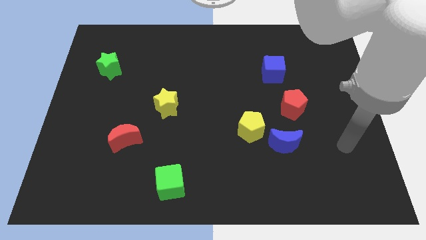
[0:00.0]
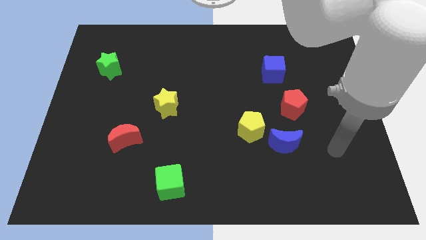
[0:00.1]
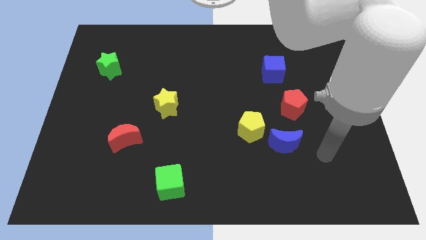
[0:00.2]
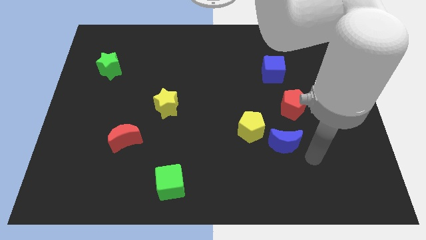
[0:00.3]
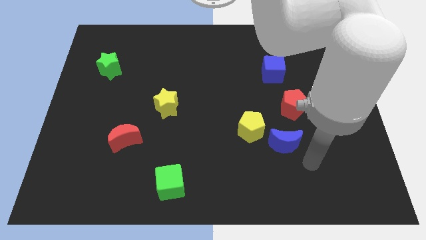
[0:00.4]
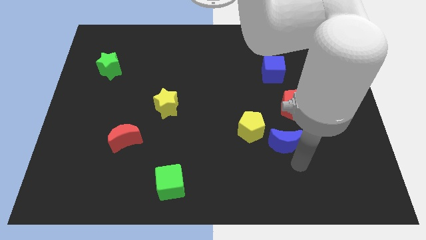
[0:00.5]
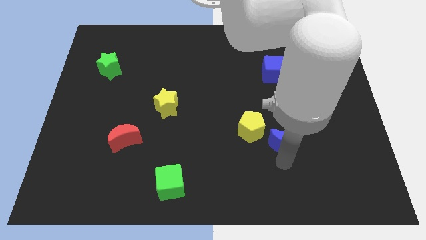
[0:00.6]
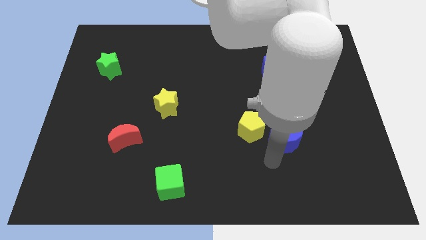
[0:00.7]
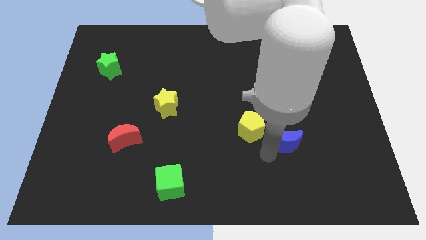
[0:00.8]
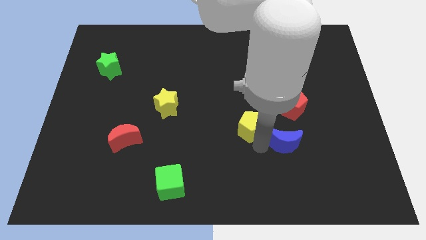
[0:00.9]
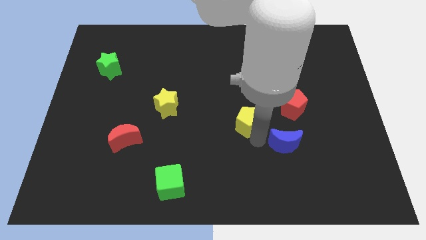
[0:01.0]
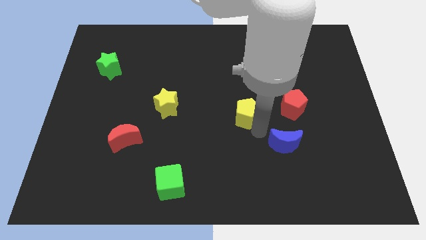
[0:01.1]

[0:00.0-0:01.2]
move the blue moon away from the yellow pentagon

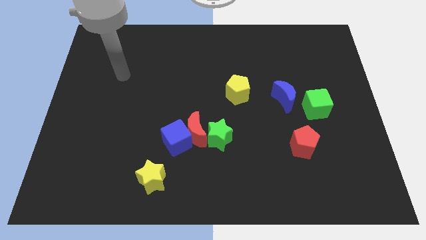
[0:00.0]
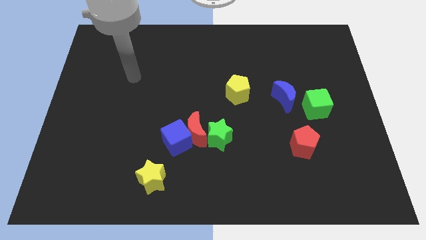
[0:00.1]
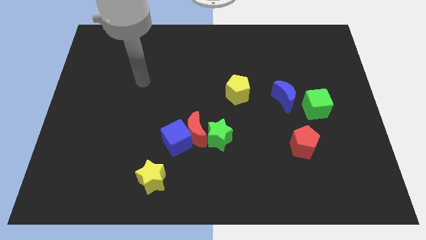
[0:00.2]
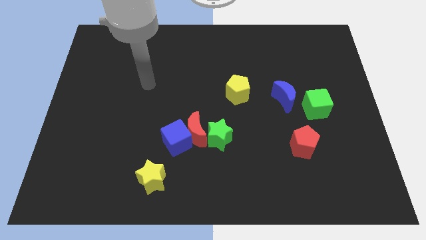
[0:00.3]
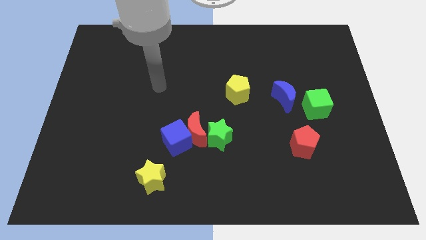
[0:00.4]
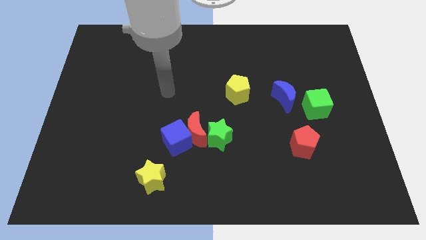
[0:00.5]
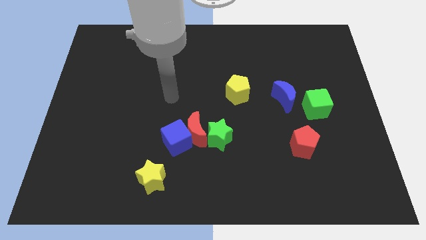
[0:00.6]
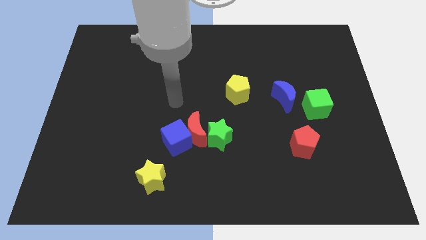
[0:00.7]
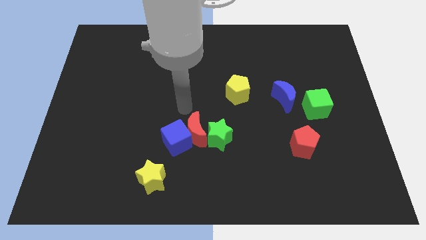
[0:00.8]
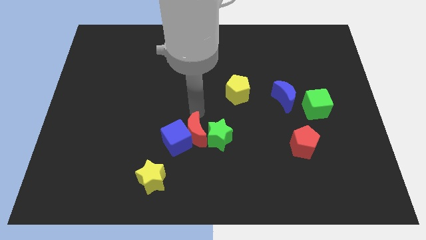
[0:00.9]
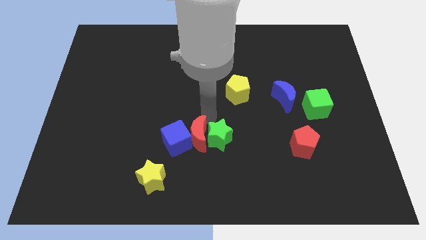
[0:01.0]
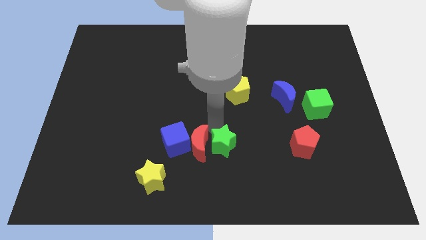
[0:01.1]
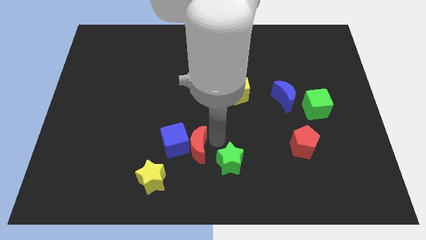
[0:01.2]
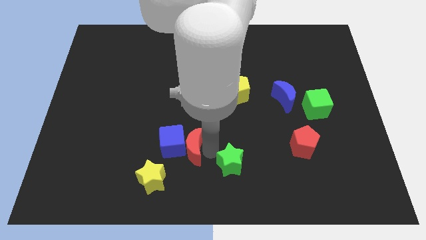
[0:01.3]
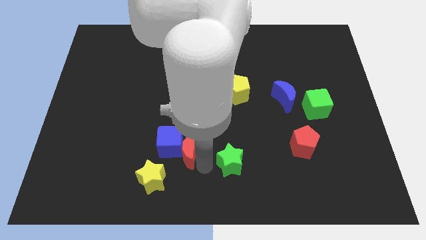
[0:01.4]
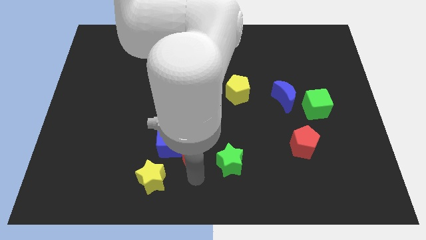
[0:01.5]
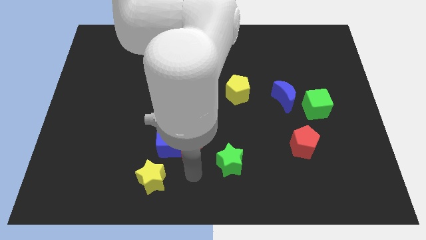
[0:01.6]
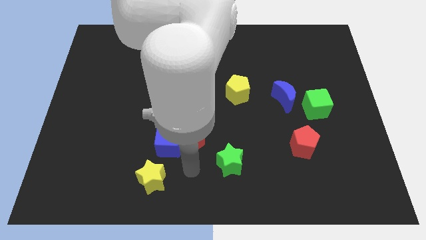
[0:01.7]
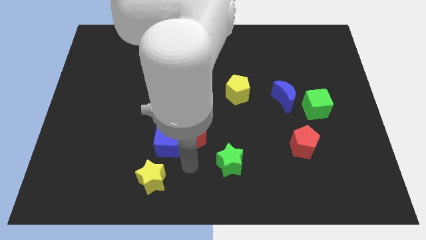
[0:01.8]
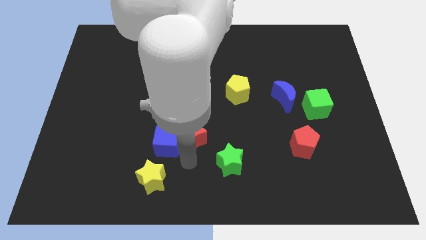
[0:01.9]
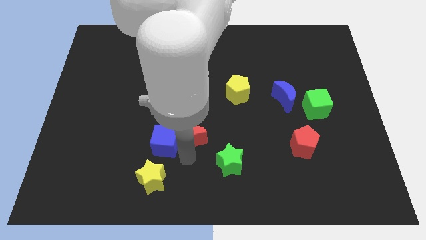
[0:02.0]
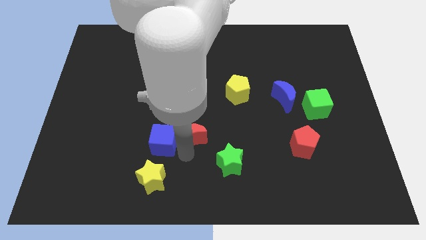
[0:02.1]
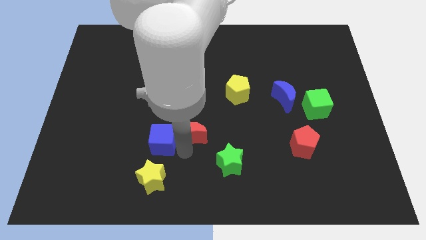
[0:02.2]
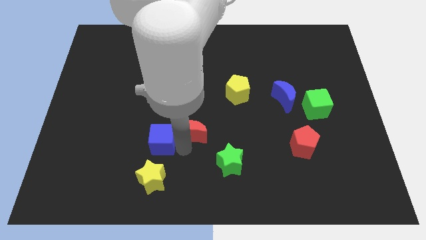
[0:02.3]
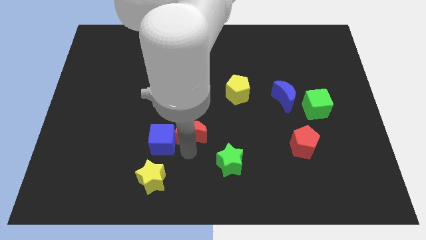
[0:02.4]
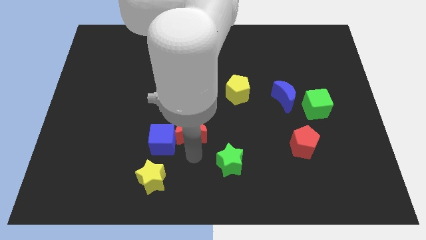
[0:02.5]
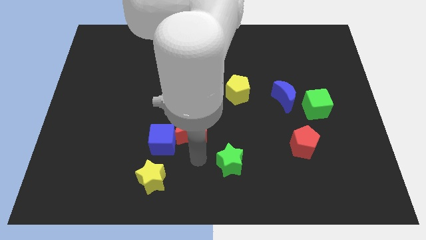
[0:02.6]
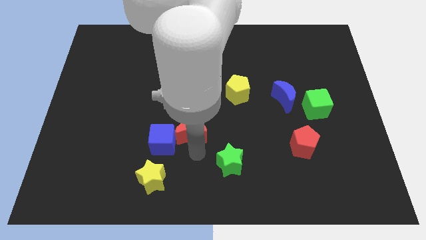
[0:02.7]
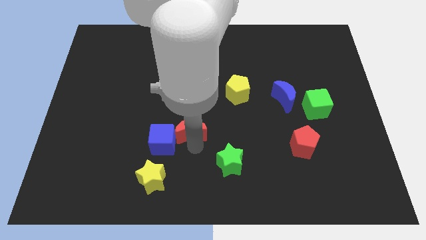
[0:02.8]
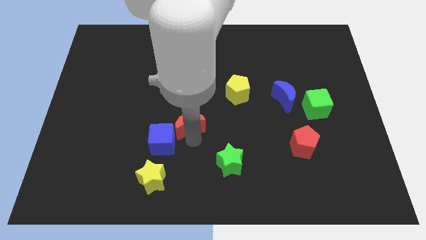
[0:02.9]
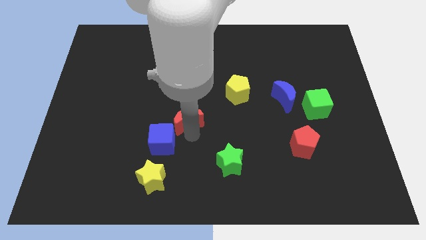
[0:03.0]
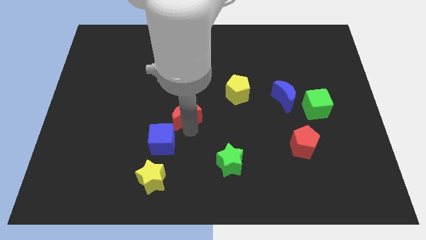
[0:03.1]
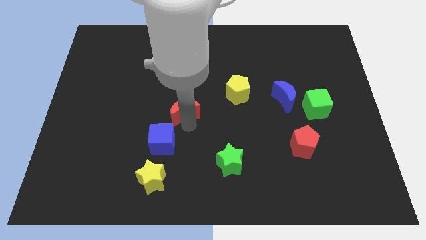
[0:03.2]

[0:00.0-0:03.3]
move the red moon away from the blue cube and green star

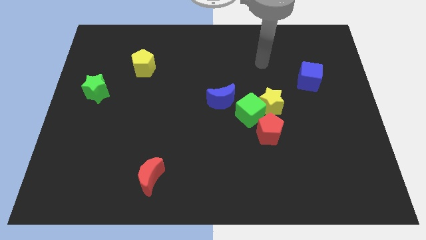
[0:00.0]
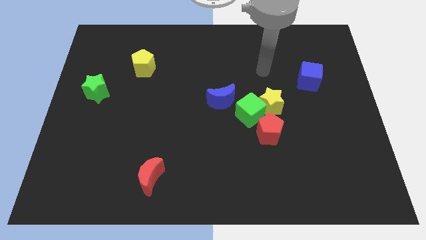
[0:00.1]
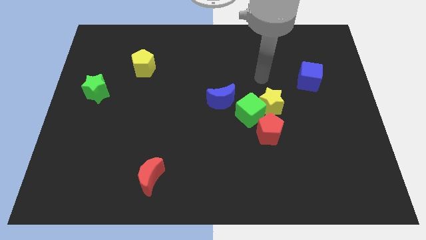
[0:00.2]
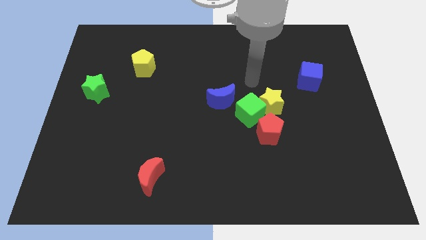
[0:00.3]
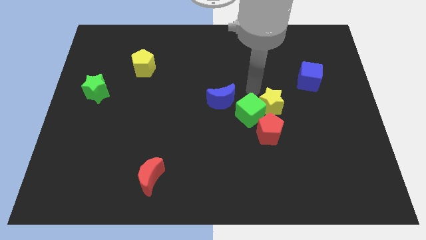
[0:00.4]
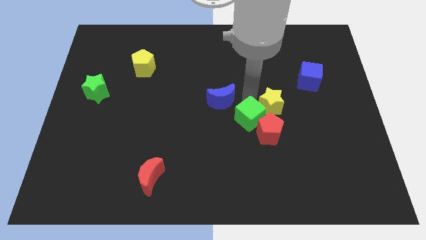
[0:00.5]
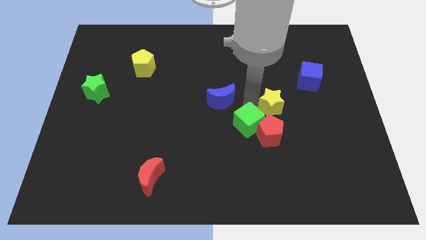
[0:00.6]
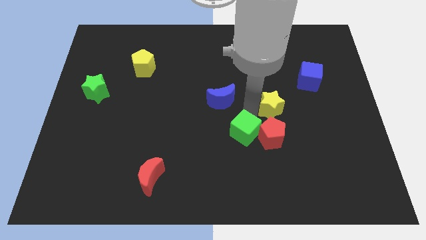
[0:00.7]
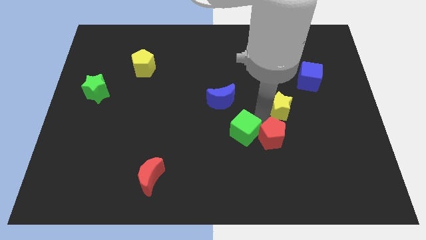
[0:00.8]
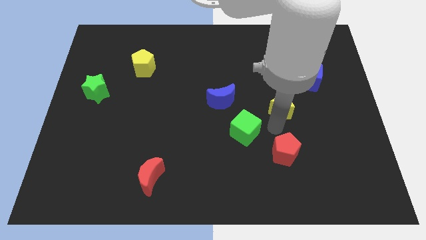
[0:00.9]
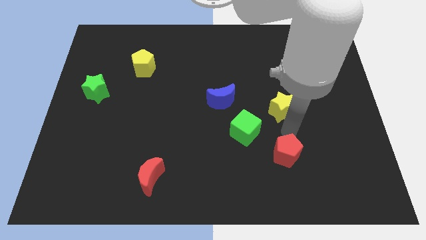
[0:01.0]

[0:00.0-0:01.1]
move the yellow star away from the green cube and red pentagon

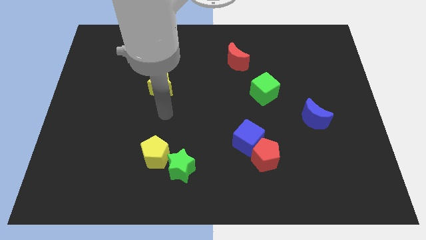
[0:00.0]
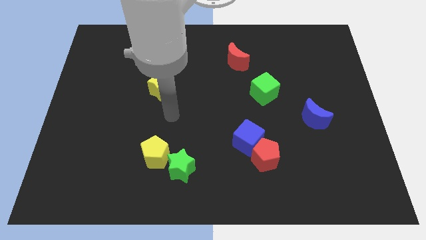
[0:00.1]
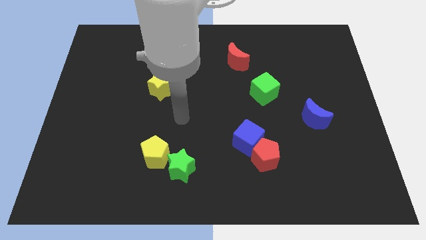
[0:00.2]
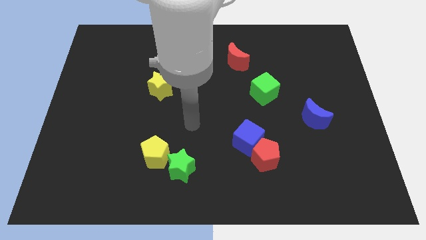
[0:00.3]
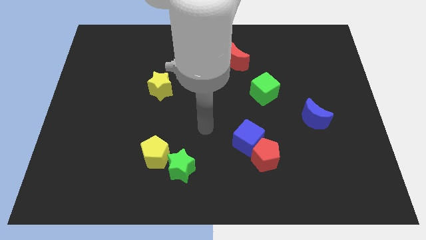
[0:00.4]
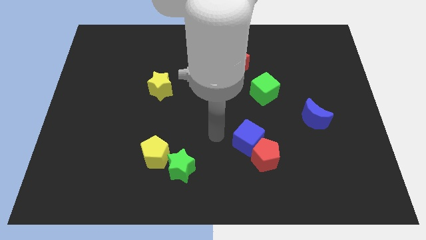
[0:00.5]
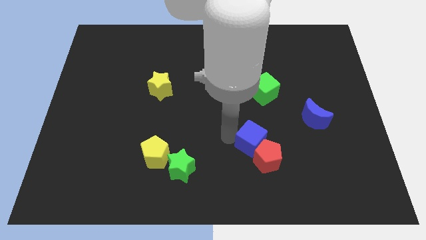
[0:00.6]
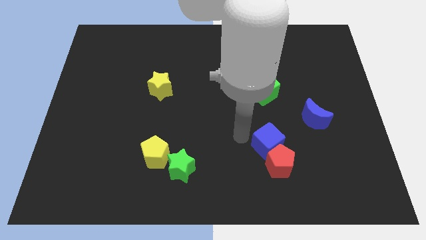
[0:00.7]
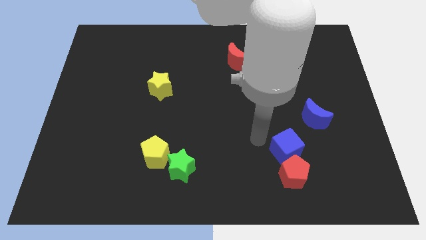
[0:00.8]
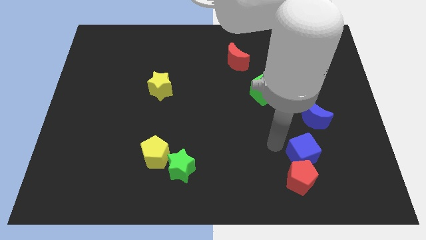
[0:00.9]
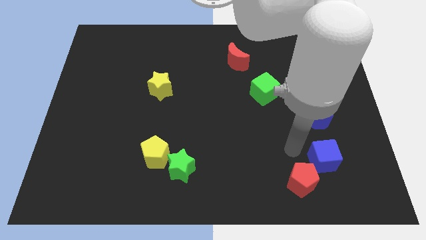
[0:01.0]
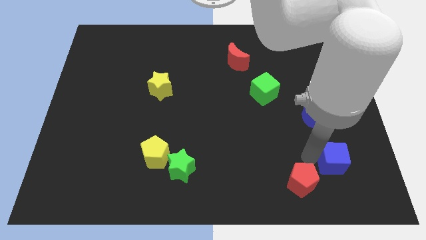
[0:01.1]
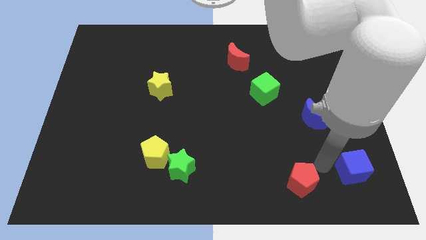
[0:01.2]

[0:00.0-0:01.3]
separate the red pentagon from the blue cube

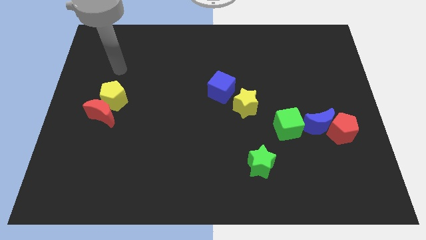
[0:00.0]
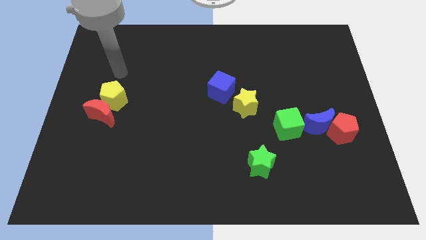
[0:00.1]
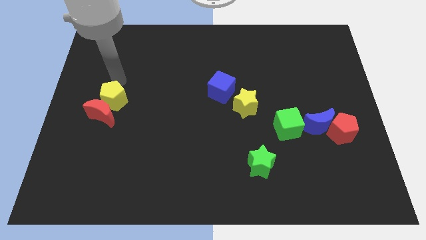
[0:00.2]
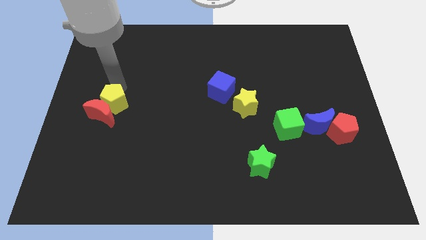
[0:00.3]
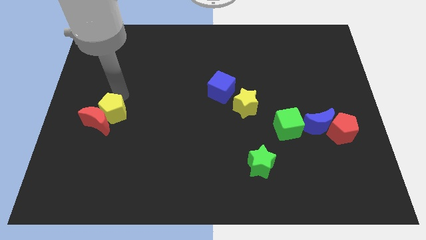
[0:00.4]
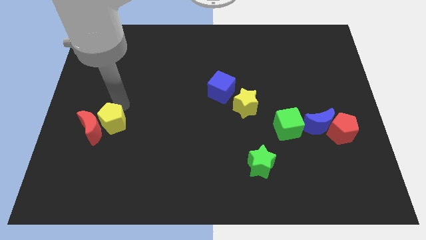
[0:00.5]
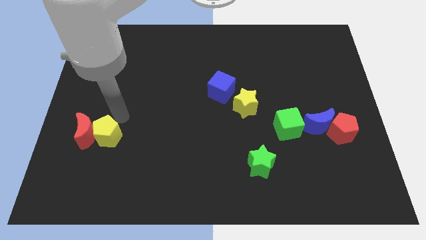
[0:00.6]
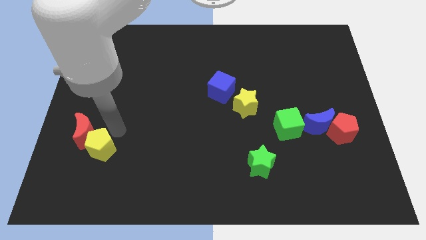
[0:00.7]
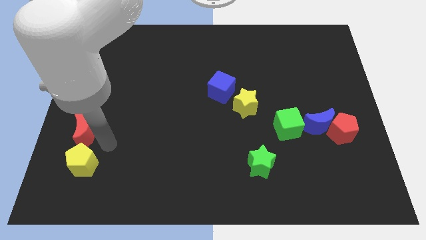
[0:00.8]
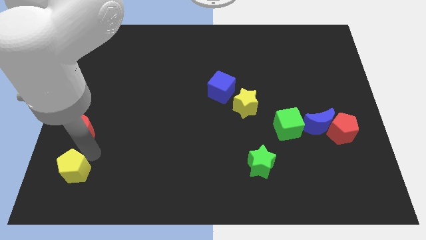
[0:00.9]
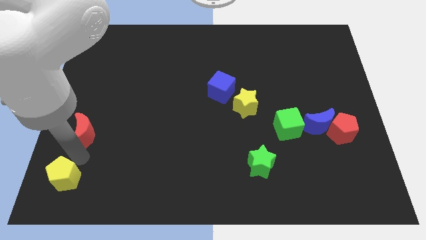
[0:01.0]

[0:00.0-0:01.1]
pull the red moon apart from the yellow pentagon

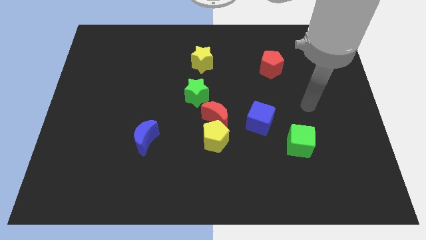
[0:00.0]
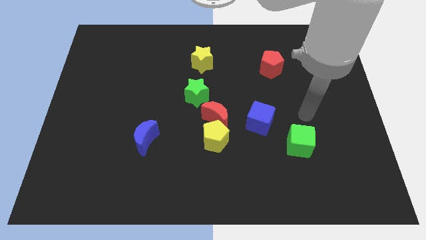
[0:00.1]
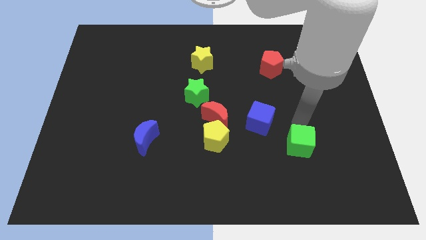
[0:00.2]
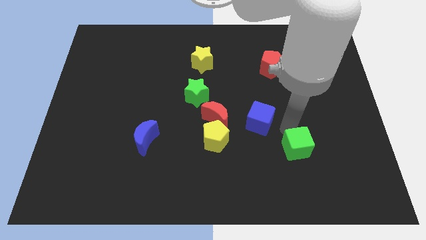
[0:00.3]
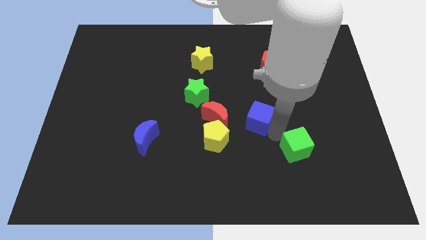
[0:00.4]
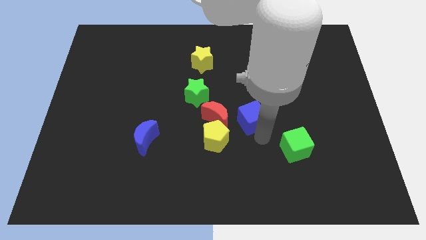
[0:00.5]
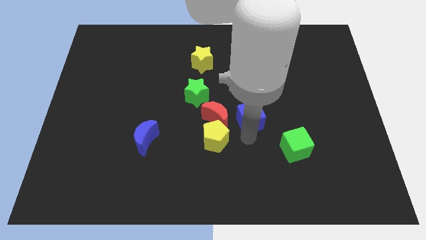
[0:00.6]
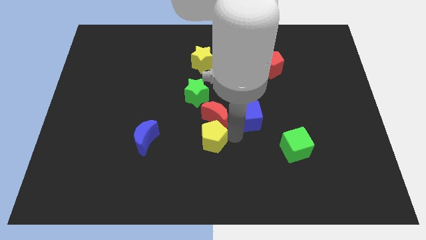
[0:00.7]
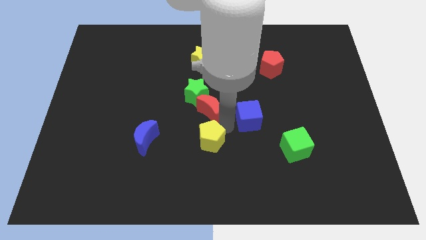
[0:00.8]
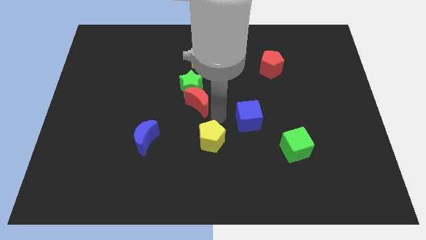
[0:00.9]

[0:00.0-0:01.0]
separate the yellow pentagon from the red moon

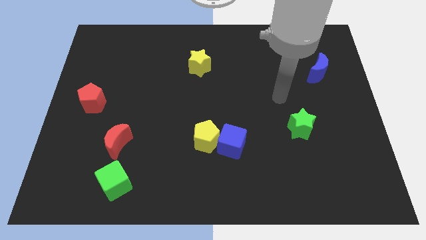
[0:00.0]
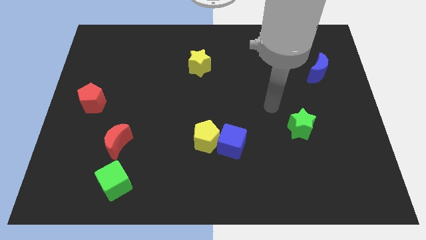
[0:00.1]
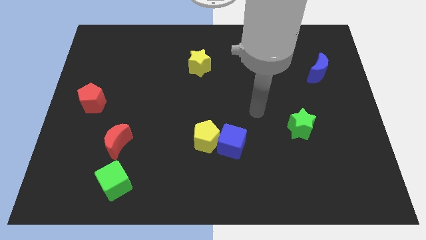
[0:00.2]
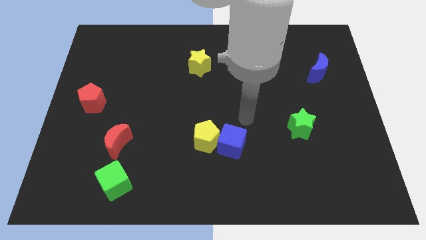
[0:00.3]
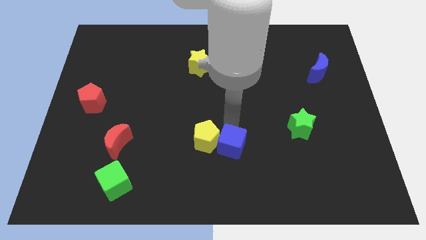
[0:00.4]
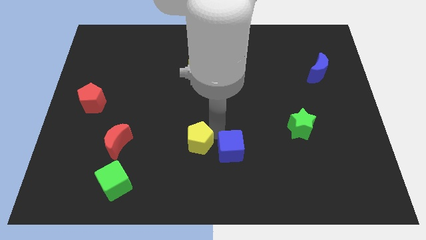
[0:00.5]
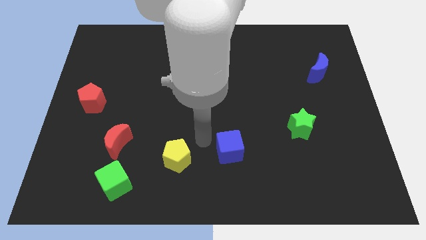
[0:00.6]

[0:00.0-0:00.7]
separate the blue cube from the yellow pentagon
